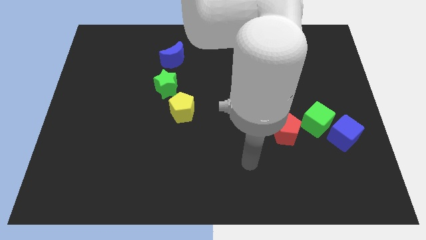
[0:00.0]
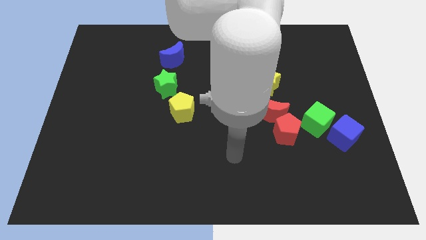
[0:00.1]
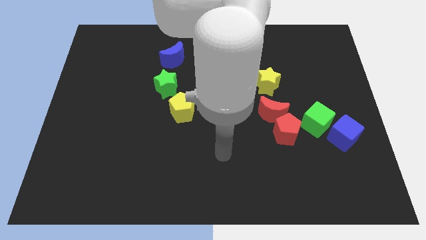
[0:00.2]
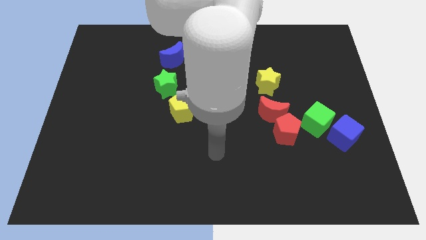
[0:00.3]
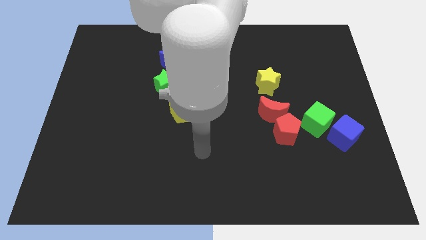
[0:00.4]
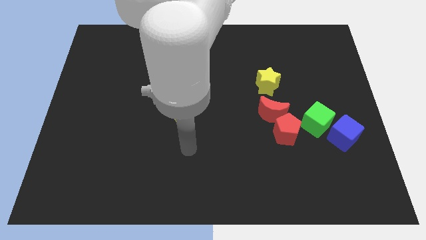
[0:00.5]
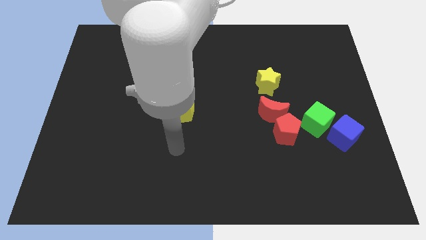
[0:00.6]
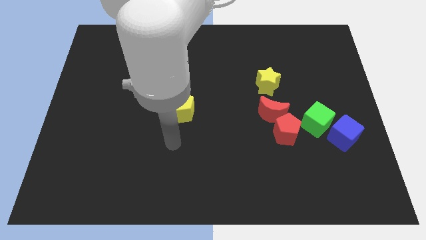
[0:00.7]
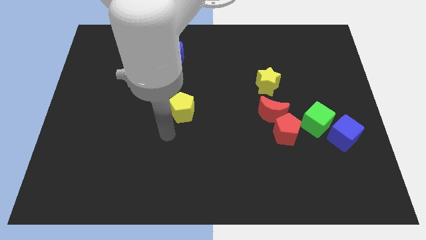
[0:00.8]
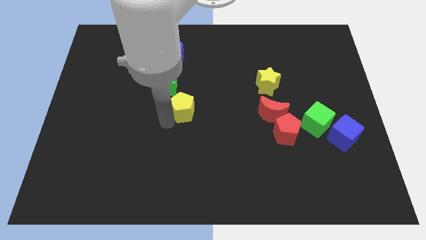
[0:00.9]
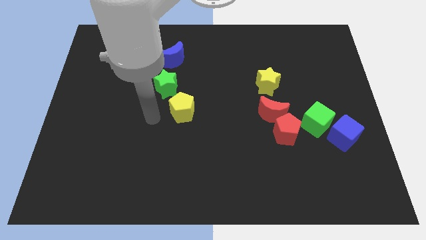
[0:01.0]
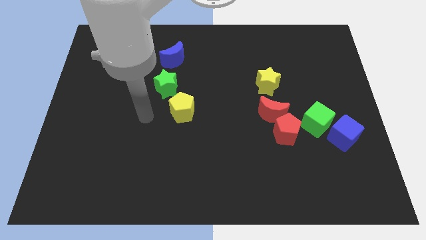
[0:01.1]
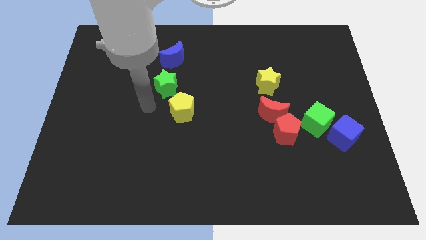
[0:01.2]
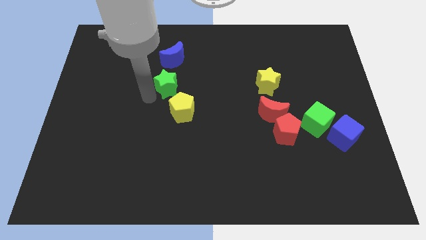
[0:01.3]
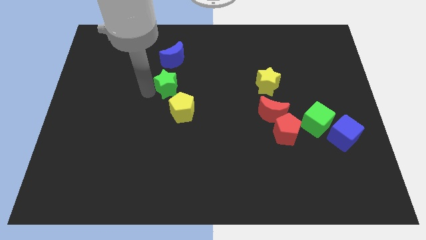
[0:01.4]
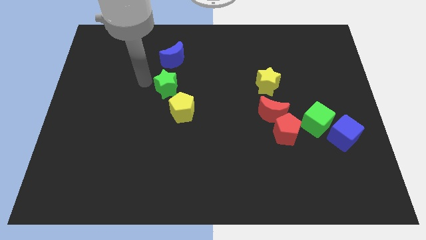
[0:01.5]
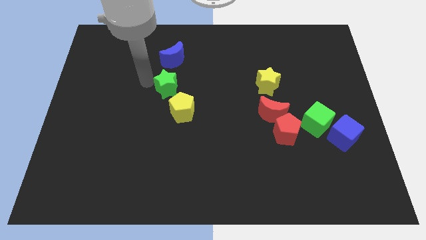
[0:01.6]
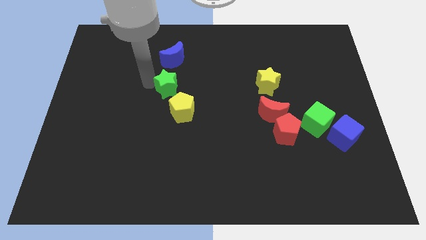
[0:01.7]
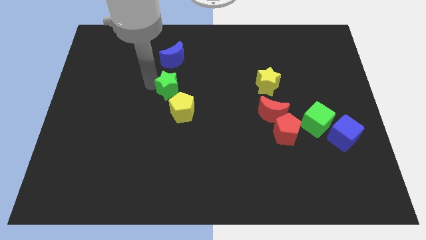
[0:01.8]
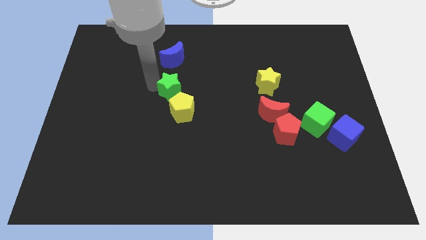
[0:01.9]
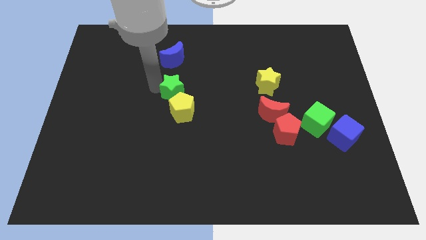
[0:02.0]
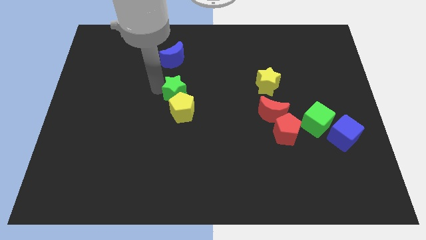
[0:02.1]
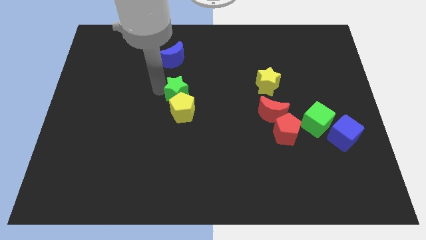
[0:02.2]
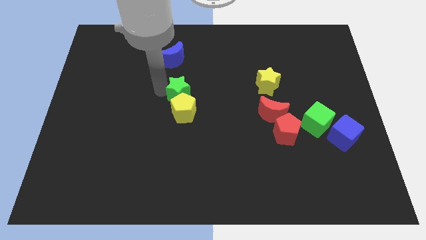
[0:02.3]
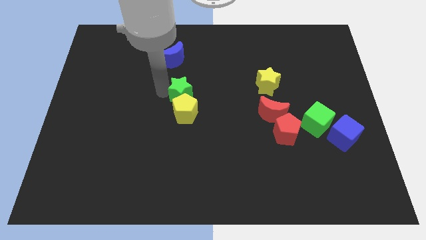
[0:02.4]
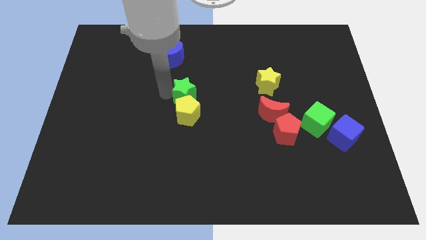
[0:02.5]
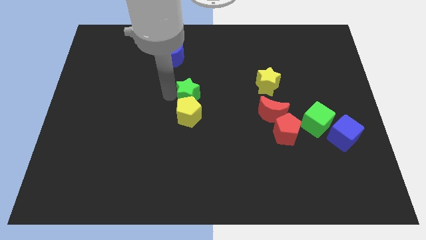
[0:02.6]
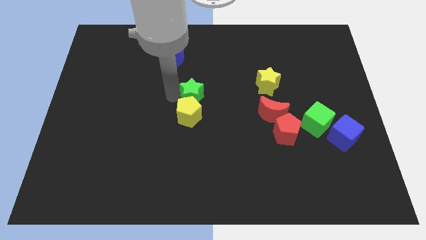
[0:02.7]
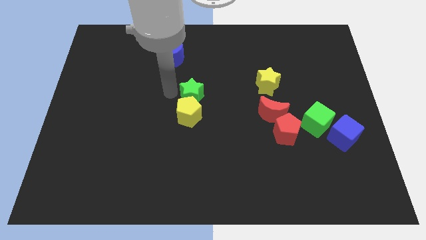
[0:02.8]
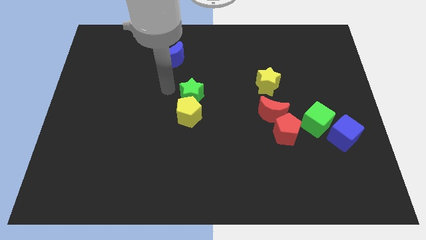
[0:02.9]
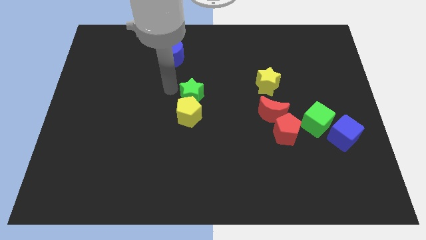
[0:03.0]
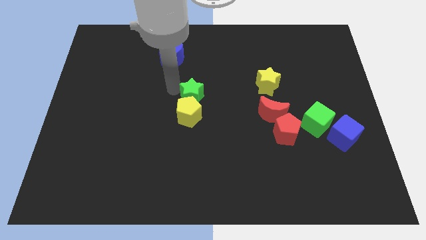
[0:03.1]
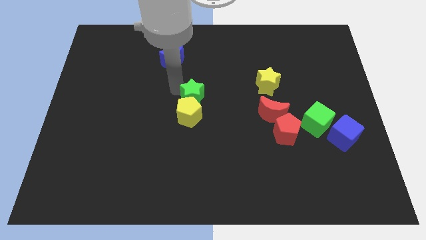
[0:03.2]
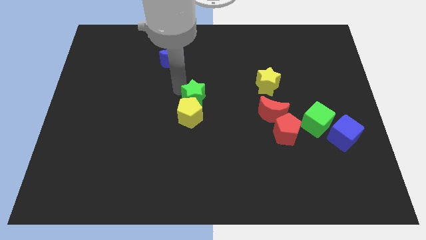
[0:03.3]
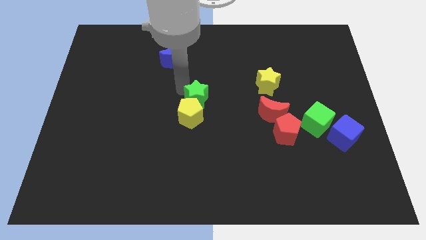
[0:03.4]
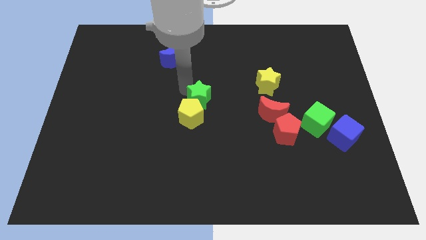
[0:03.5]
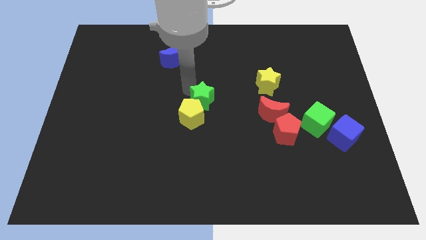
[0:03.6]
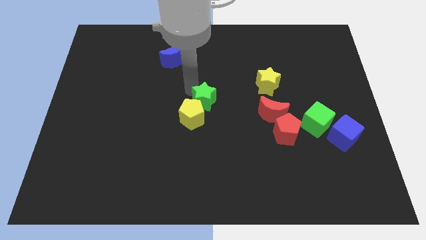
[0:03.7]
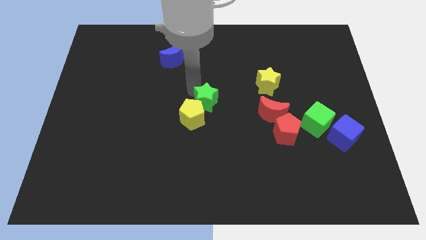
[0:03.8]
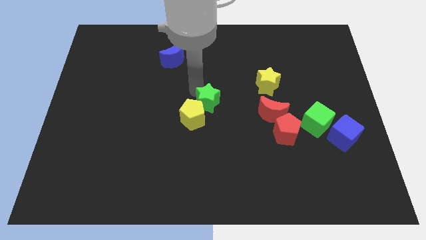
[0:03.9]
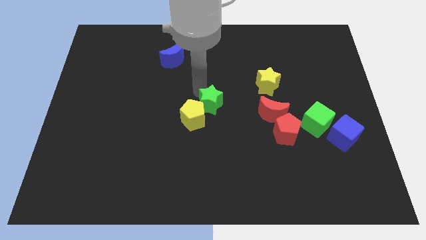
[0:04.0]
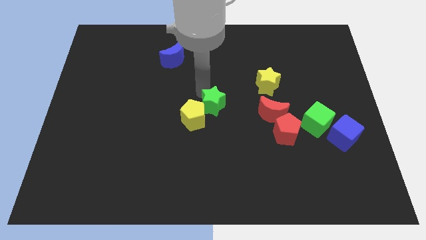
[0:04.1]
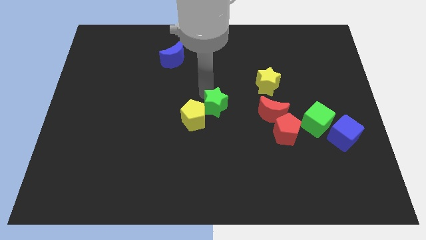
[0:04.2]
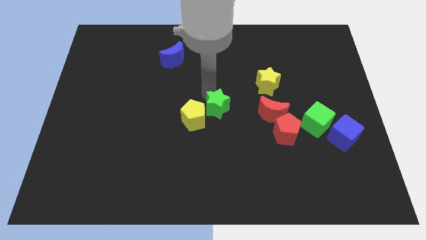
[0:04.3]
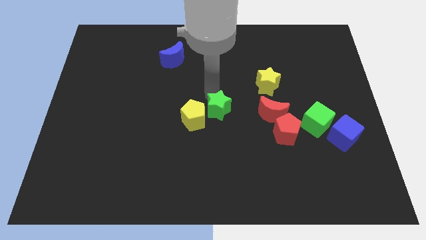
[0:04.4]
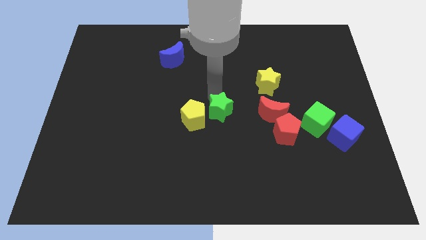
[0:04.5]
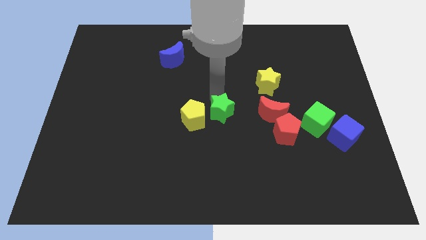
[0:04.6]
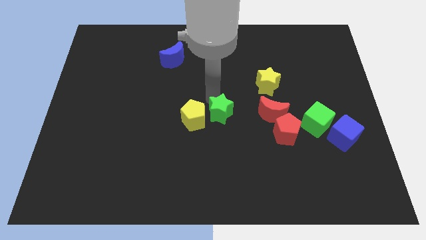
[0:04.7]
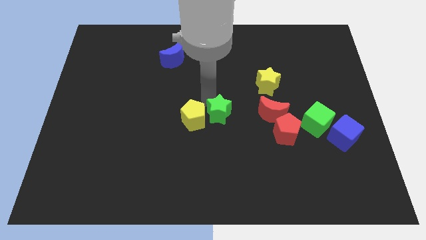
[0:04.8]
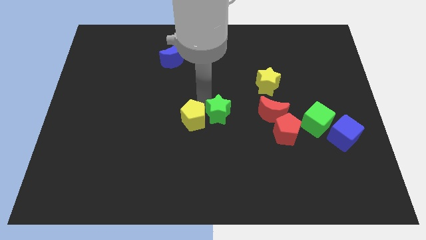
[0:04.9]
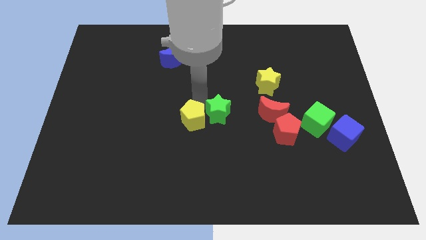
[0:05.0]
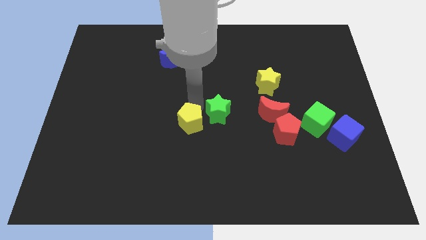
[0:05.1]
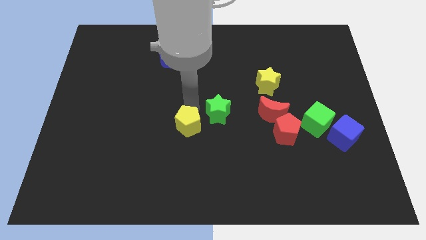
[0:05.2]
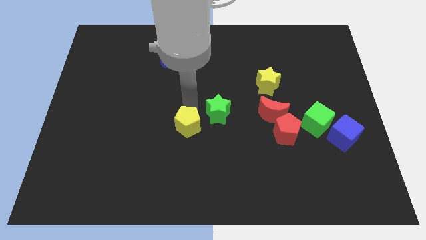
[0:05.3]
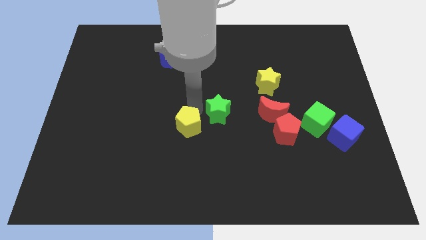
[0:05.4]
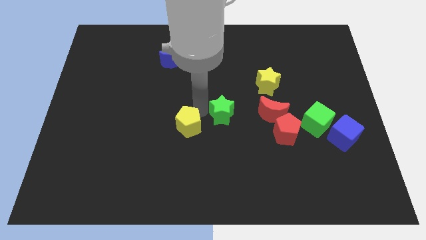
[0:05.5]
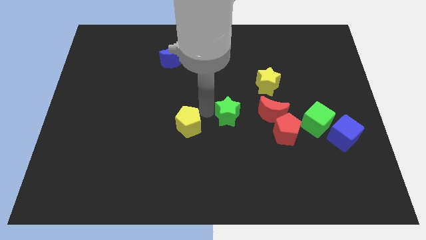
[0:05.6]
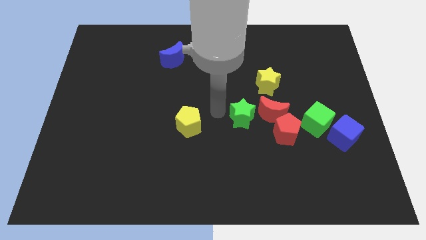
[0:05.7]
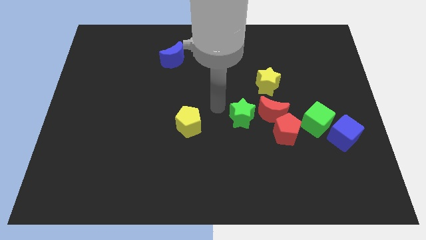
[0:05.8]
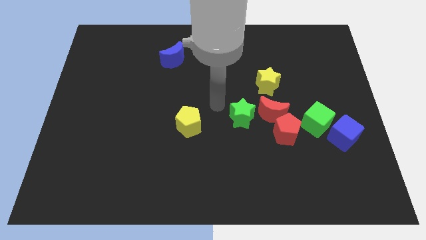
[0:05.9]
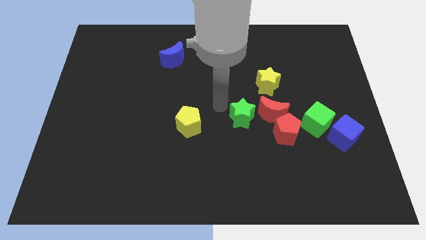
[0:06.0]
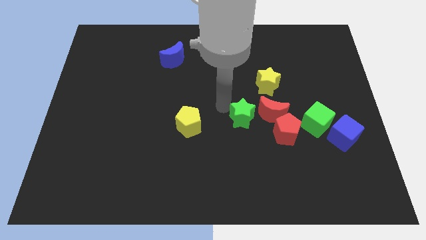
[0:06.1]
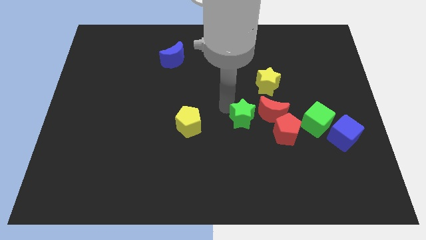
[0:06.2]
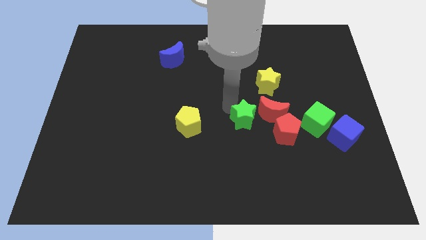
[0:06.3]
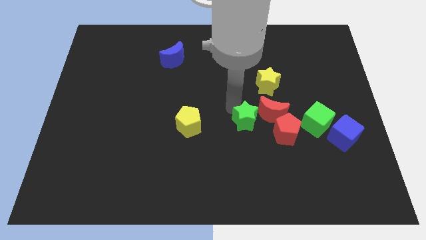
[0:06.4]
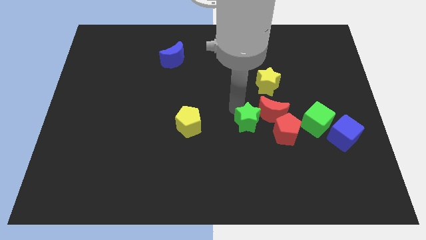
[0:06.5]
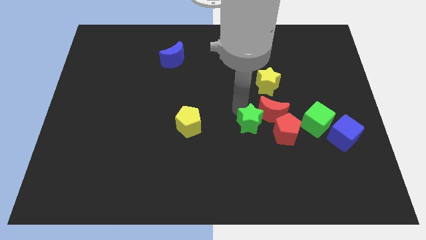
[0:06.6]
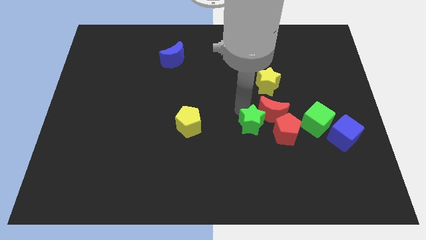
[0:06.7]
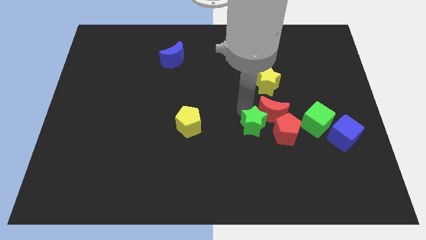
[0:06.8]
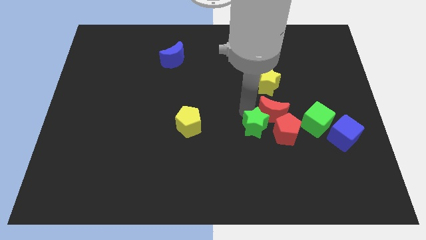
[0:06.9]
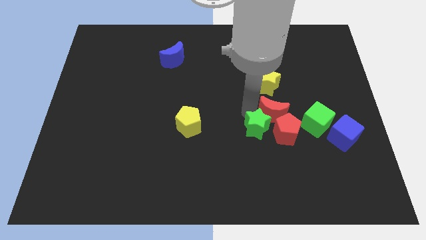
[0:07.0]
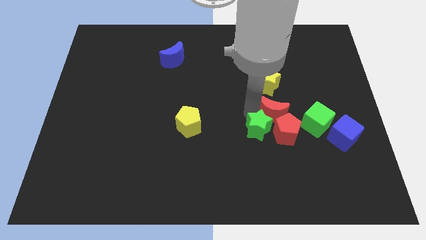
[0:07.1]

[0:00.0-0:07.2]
put the green star to the red pentagon

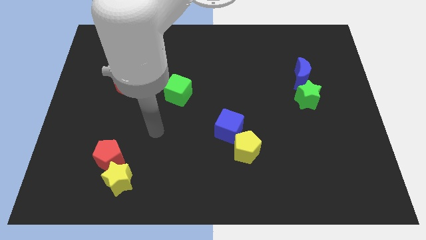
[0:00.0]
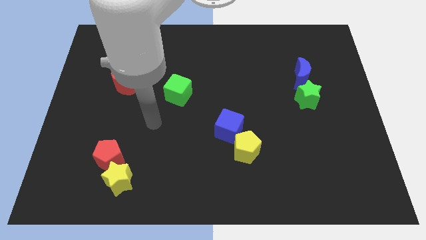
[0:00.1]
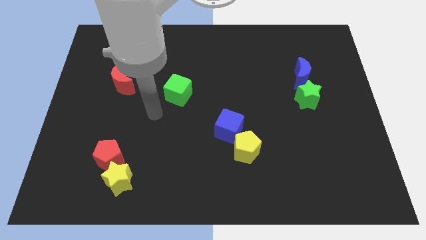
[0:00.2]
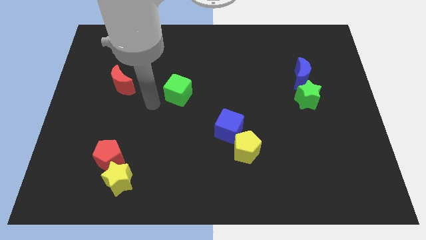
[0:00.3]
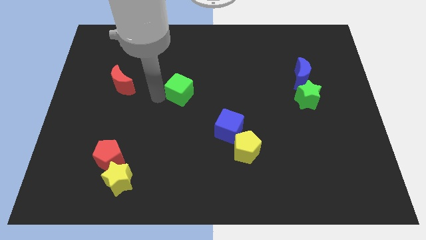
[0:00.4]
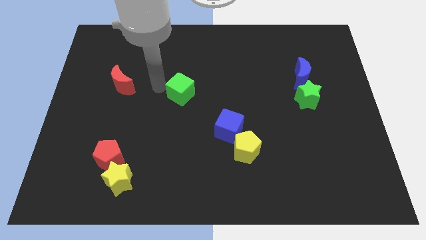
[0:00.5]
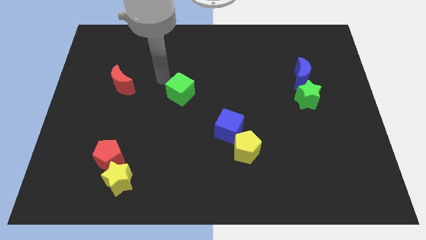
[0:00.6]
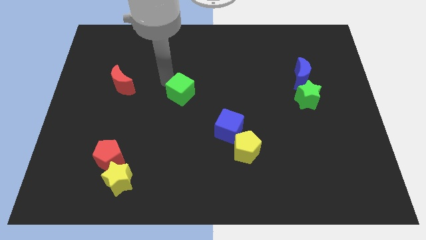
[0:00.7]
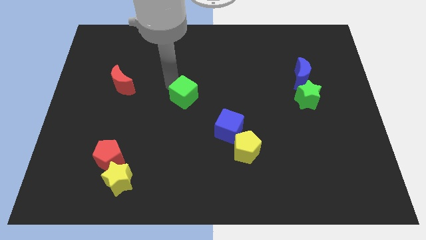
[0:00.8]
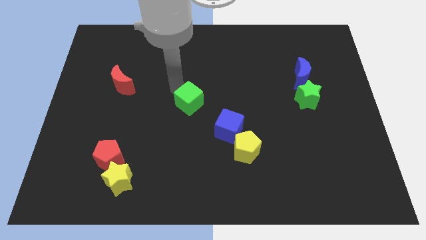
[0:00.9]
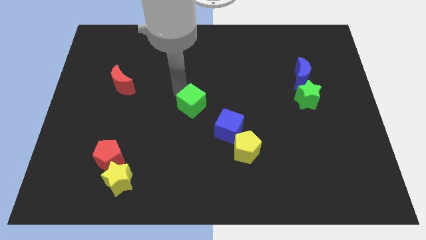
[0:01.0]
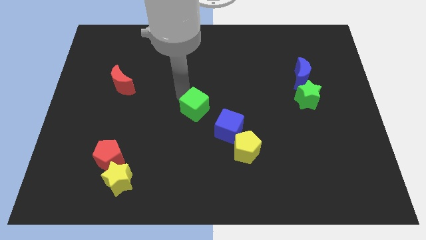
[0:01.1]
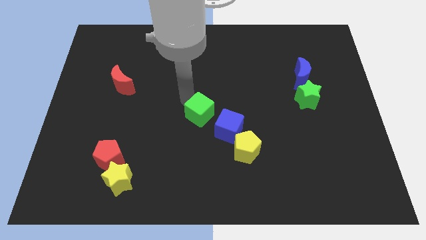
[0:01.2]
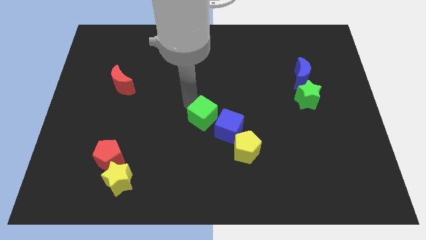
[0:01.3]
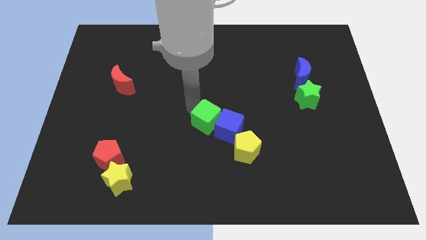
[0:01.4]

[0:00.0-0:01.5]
put the green cube towards the blue cube
